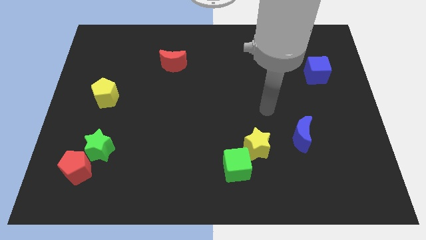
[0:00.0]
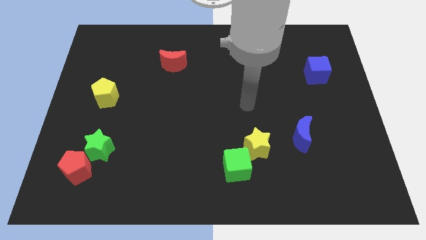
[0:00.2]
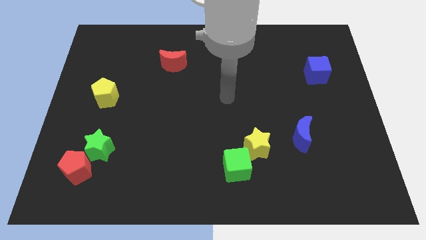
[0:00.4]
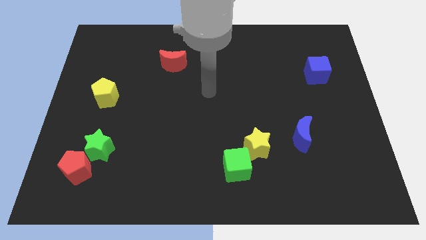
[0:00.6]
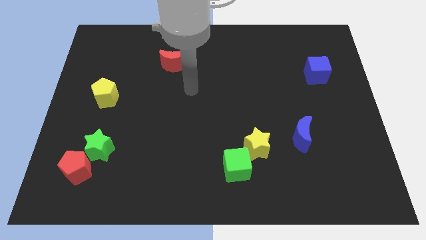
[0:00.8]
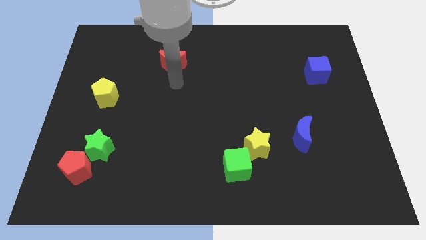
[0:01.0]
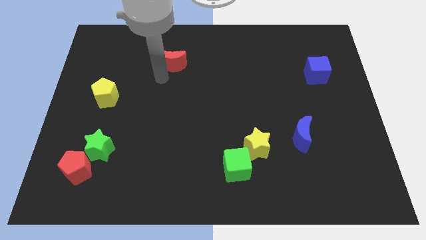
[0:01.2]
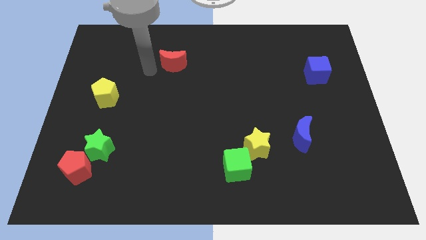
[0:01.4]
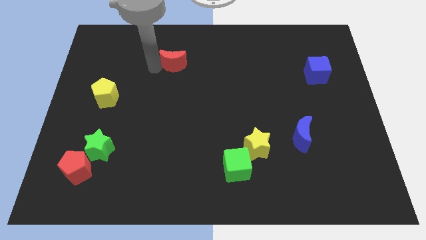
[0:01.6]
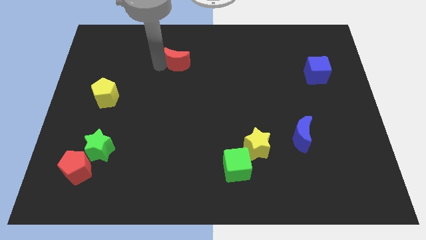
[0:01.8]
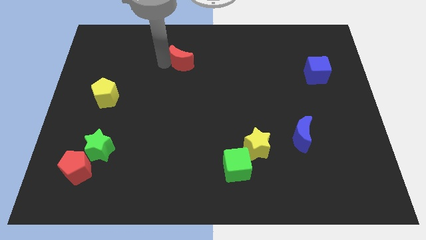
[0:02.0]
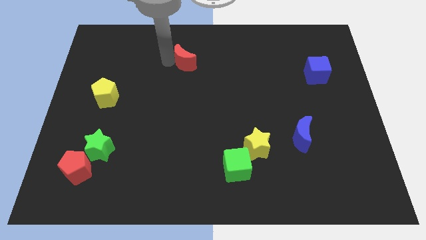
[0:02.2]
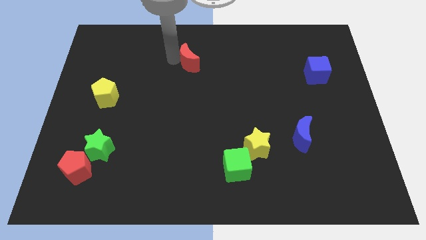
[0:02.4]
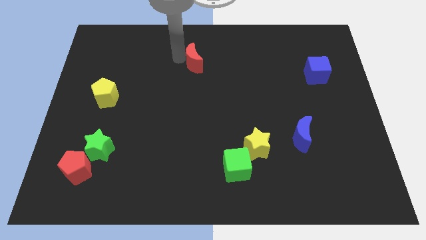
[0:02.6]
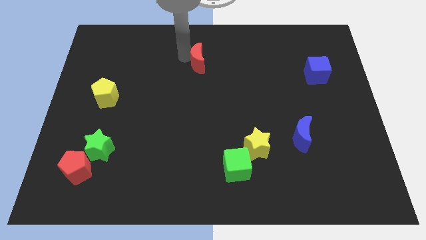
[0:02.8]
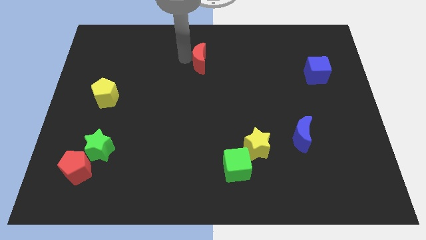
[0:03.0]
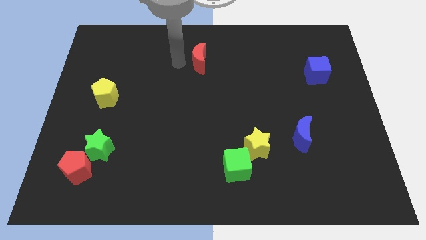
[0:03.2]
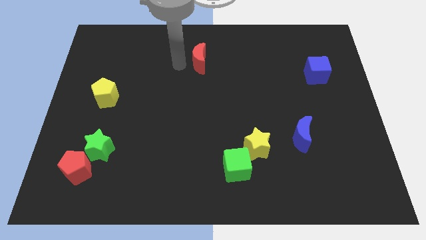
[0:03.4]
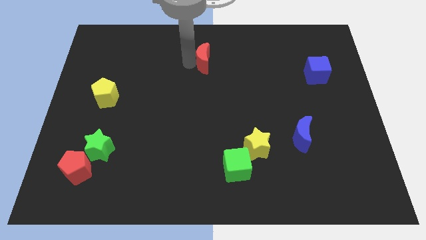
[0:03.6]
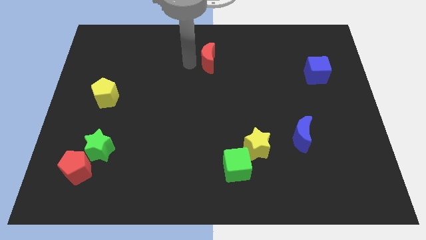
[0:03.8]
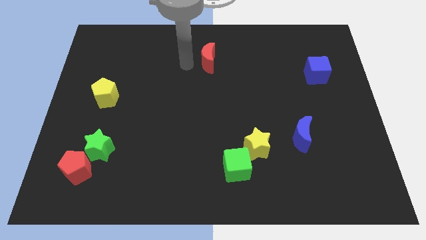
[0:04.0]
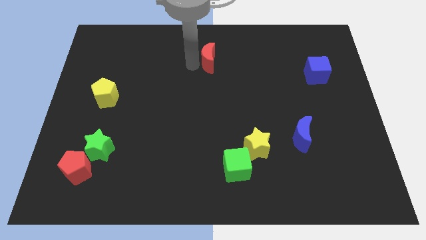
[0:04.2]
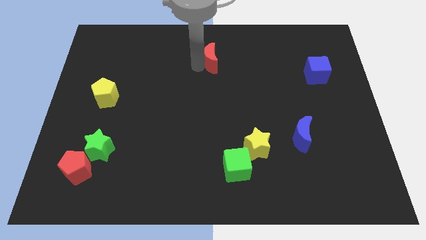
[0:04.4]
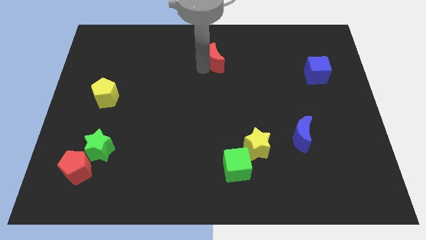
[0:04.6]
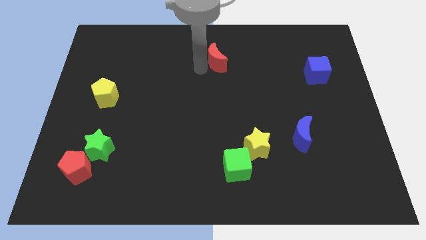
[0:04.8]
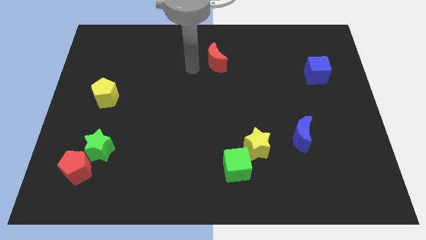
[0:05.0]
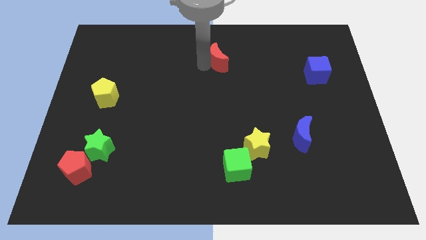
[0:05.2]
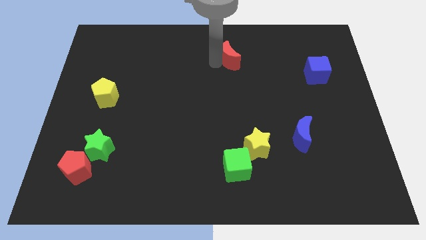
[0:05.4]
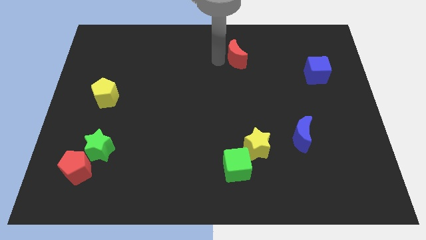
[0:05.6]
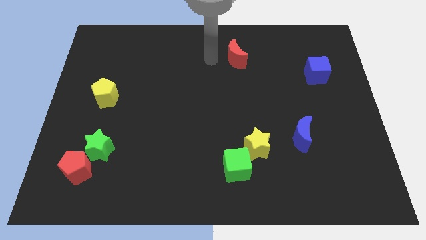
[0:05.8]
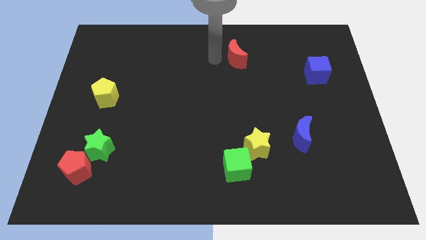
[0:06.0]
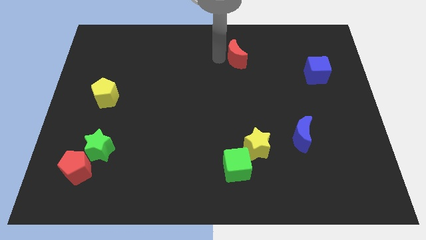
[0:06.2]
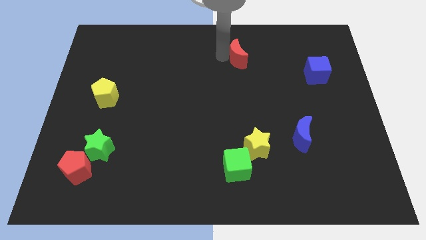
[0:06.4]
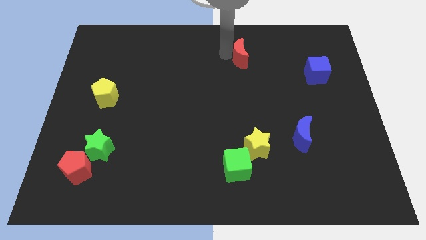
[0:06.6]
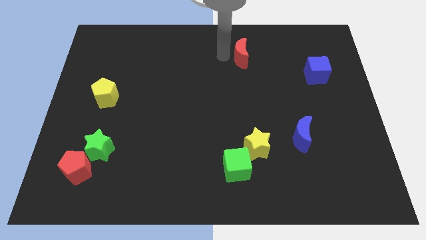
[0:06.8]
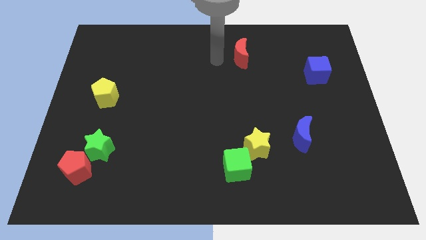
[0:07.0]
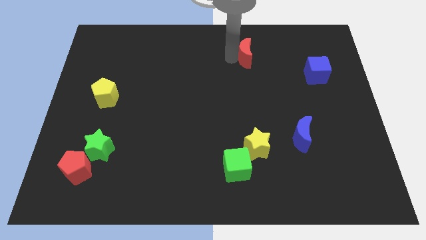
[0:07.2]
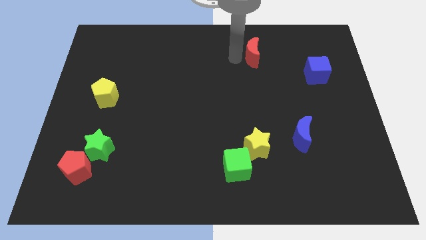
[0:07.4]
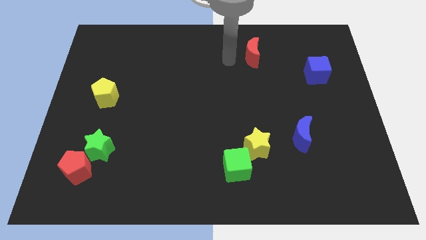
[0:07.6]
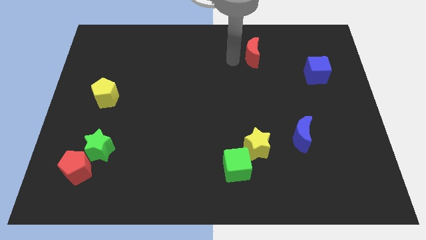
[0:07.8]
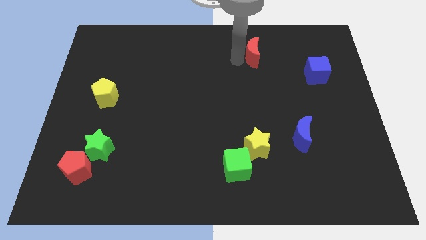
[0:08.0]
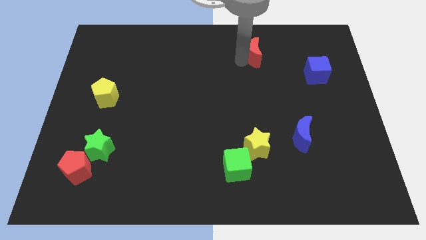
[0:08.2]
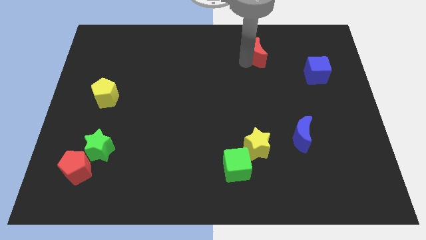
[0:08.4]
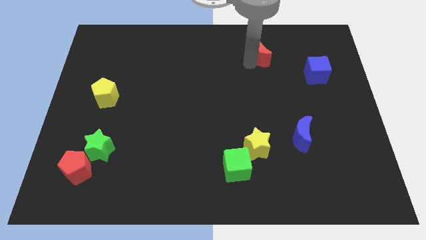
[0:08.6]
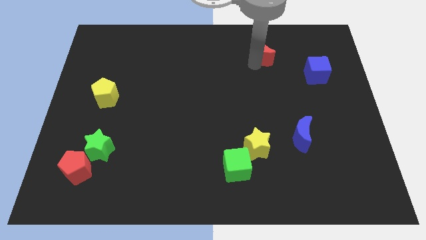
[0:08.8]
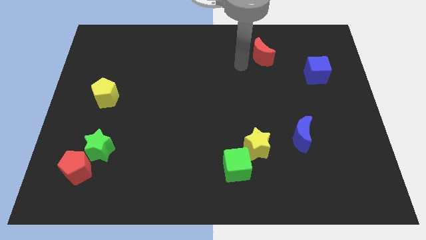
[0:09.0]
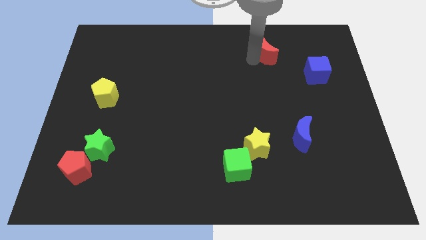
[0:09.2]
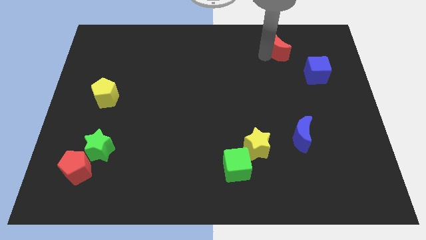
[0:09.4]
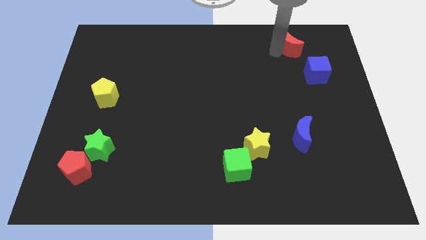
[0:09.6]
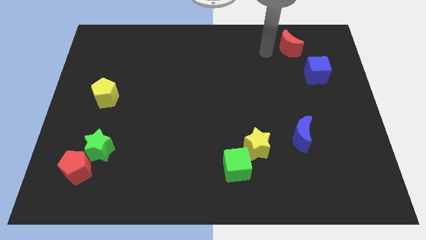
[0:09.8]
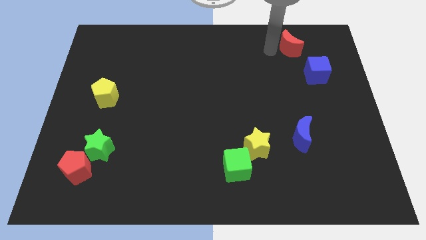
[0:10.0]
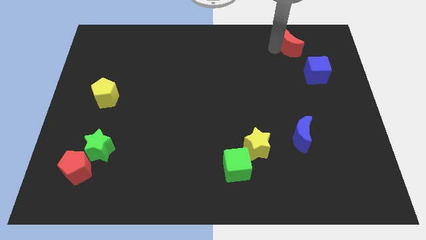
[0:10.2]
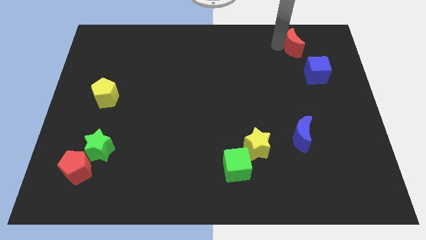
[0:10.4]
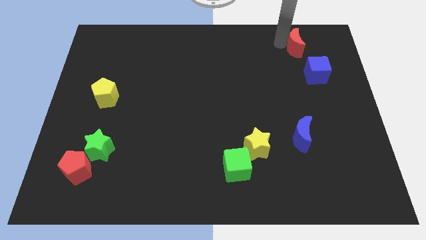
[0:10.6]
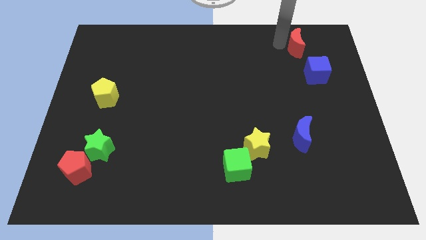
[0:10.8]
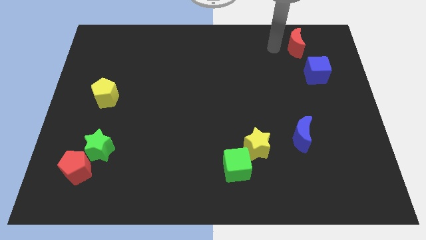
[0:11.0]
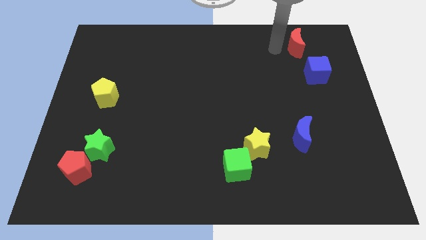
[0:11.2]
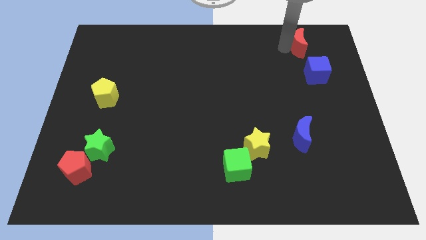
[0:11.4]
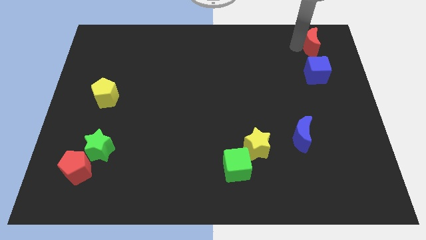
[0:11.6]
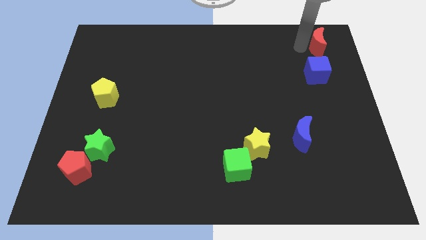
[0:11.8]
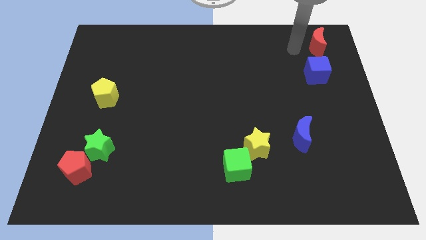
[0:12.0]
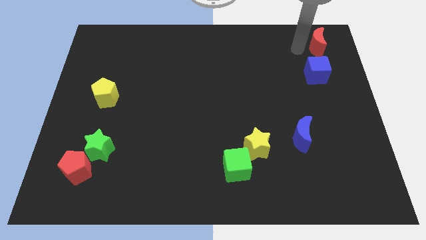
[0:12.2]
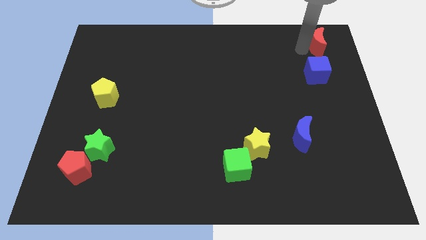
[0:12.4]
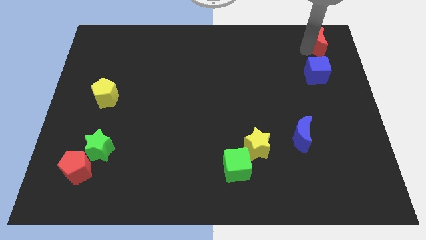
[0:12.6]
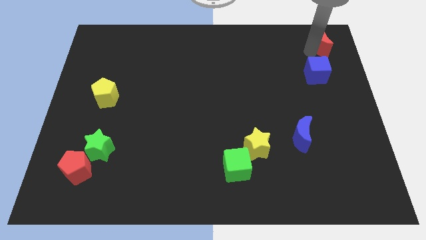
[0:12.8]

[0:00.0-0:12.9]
move the red moon to the upper right corner

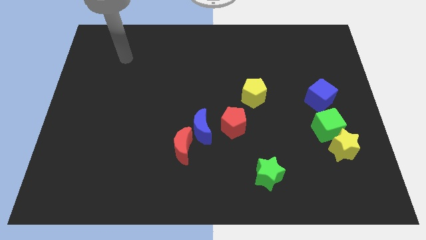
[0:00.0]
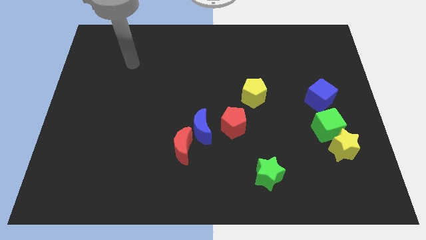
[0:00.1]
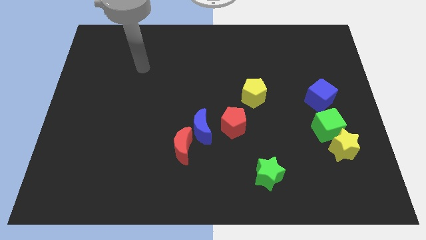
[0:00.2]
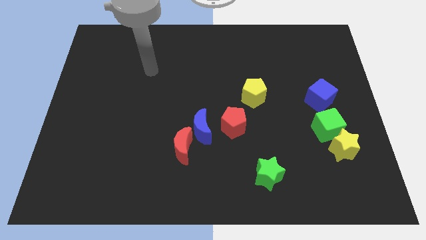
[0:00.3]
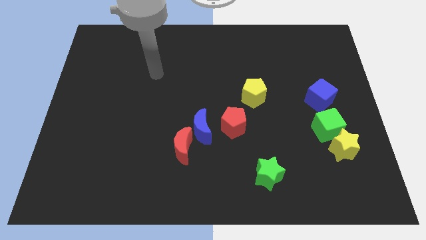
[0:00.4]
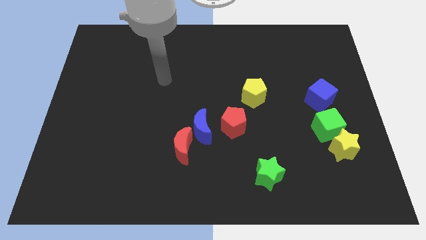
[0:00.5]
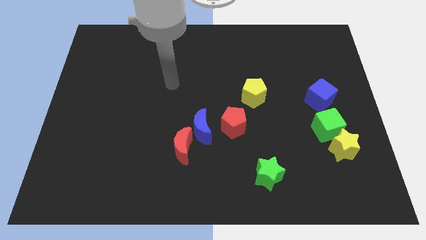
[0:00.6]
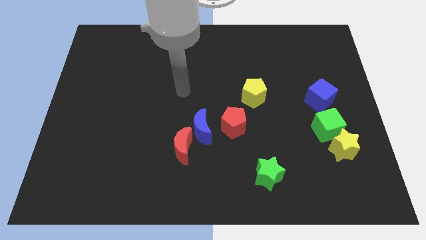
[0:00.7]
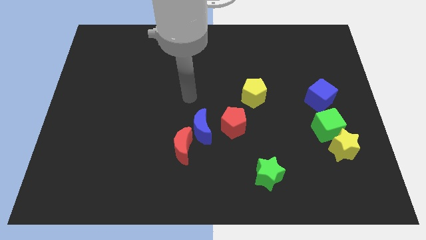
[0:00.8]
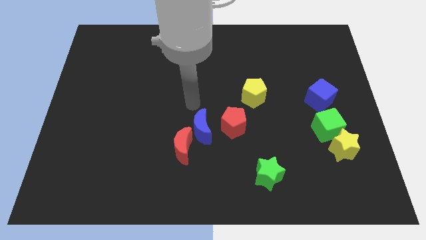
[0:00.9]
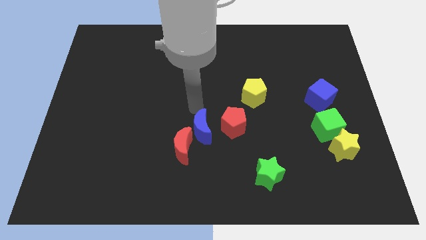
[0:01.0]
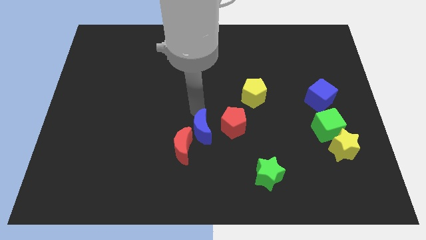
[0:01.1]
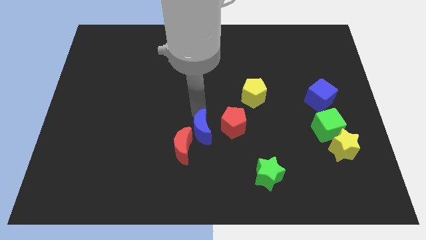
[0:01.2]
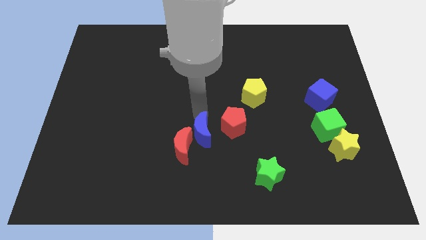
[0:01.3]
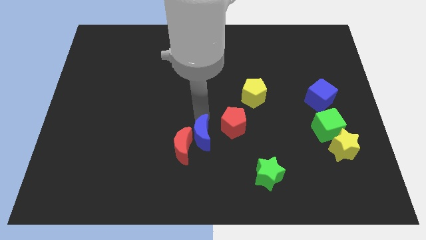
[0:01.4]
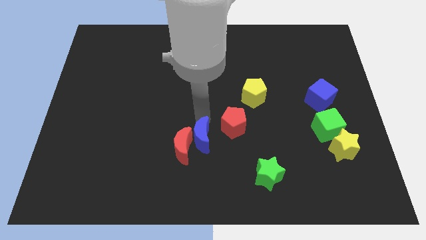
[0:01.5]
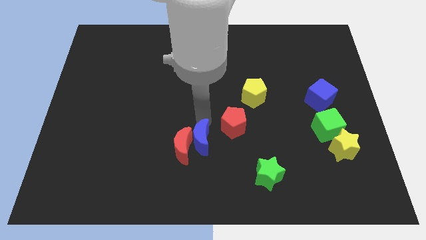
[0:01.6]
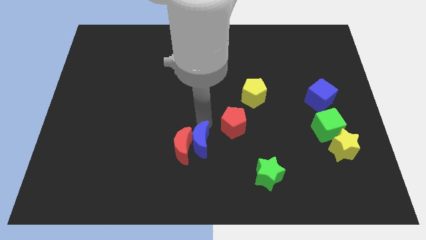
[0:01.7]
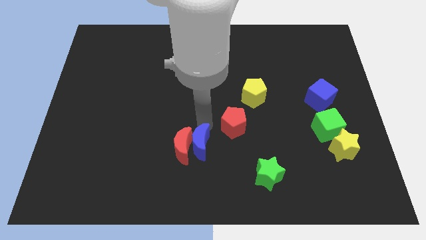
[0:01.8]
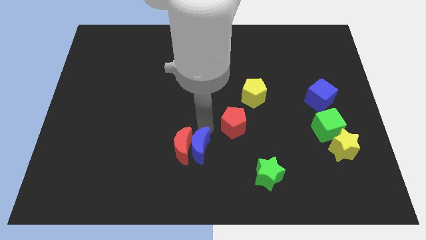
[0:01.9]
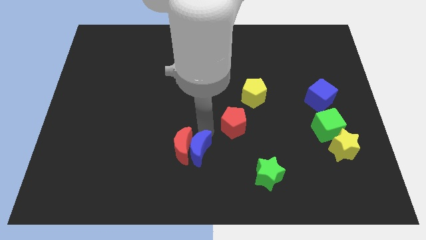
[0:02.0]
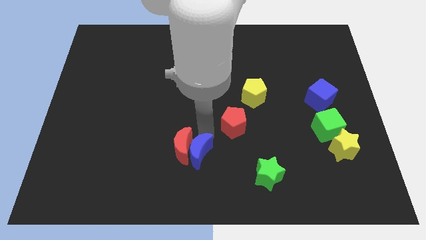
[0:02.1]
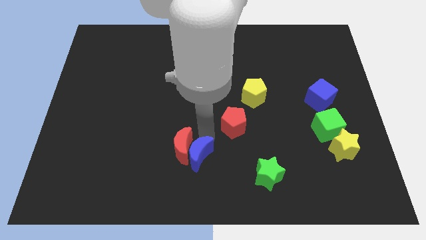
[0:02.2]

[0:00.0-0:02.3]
push the blue moon to the bottom
